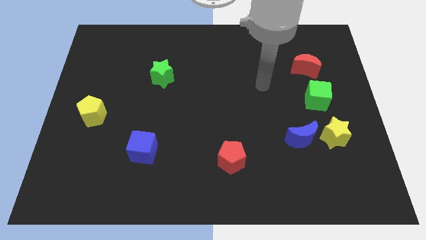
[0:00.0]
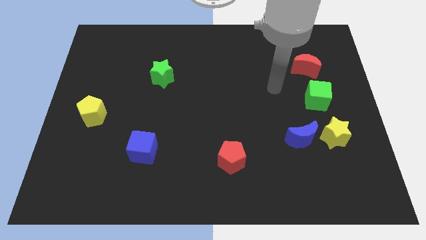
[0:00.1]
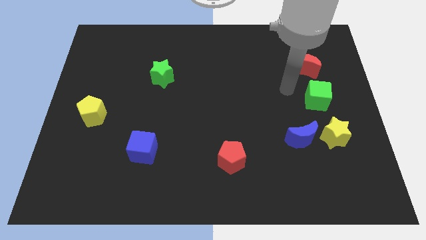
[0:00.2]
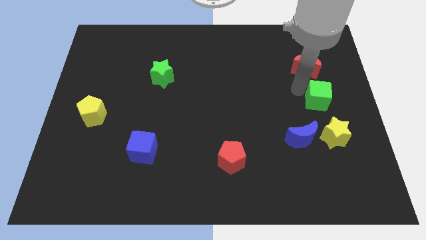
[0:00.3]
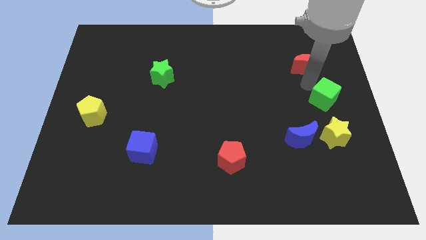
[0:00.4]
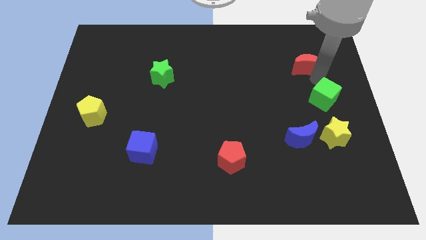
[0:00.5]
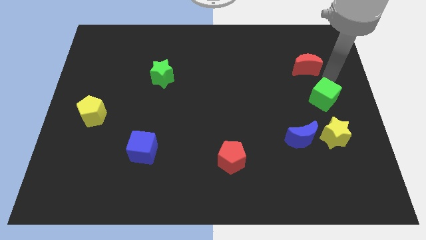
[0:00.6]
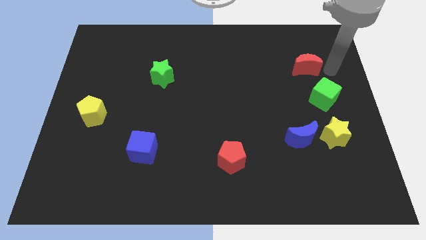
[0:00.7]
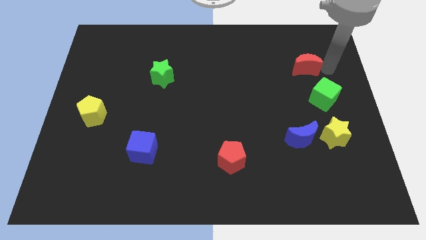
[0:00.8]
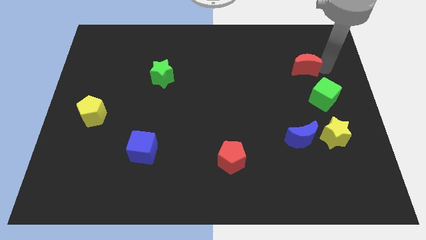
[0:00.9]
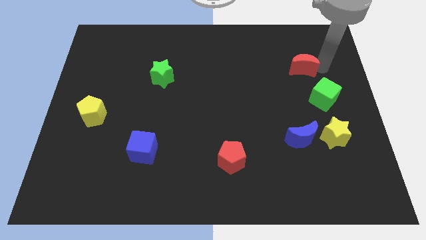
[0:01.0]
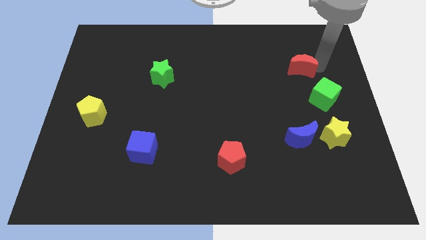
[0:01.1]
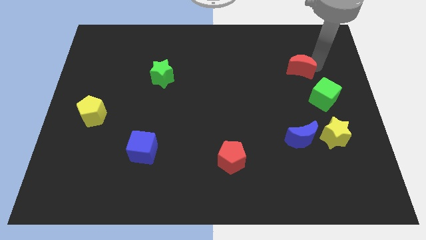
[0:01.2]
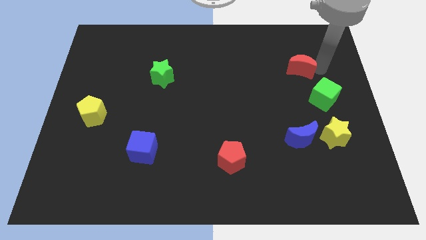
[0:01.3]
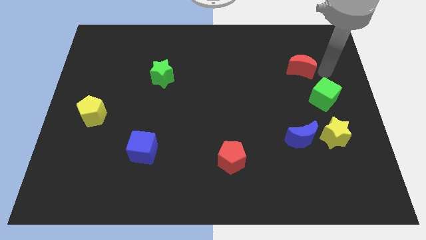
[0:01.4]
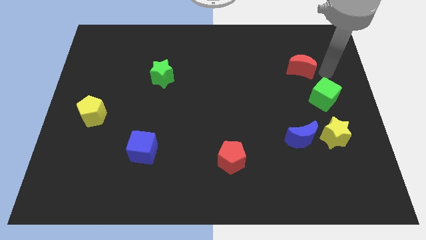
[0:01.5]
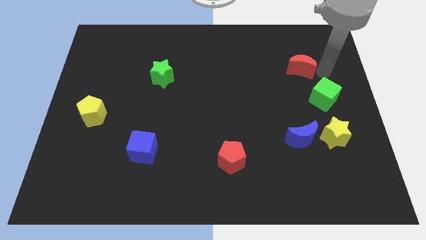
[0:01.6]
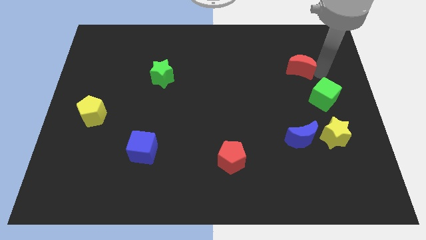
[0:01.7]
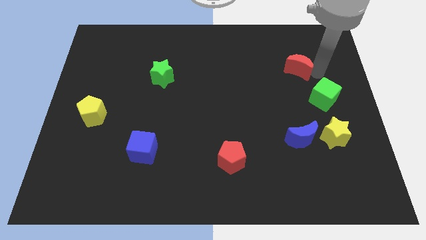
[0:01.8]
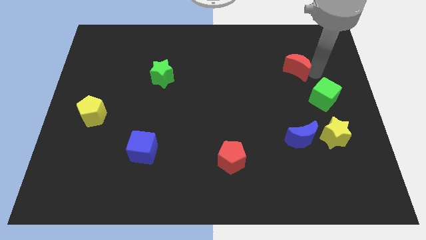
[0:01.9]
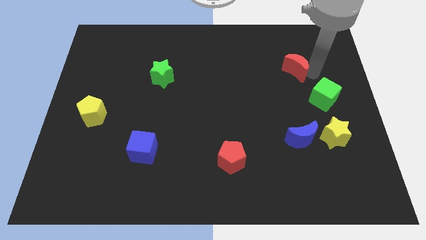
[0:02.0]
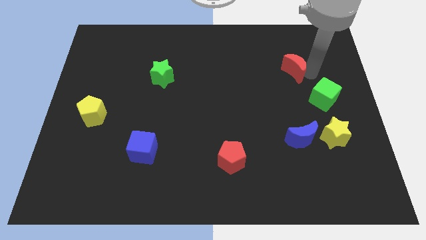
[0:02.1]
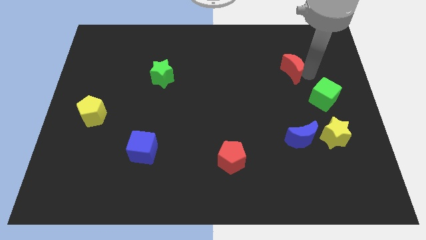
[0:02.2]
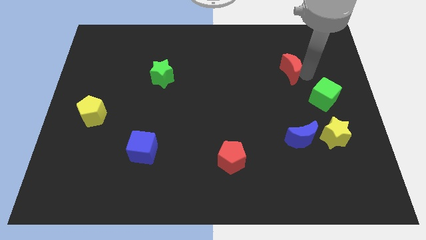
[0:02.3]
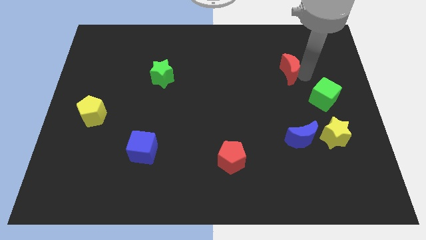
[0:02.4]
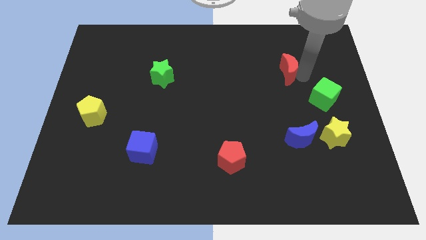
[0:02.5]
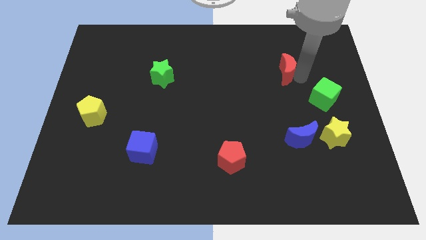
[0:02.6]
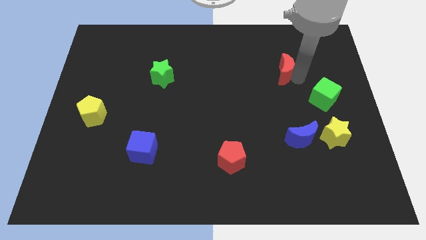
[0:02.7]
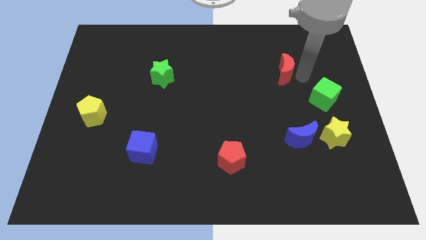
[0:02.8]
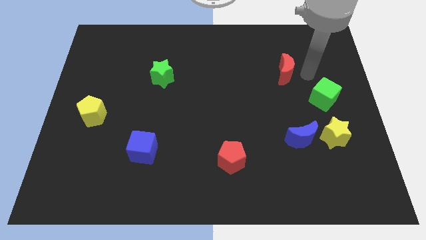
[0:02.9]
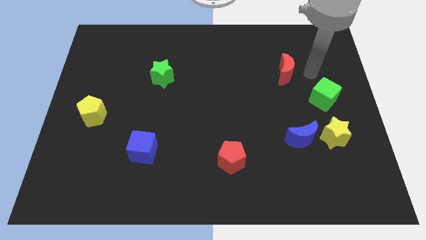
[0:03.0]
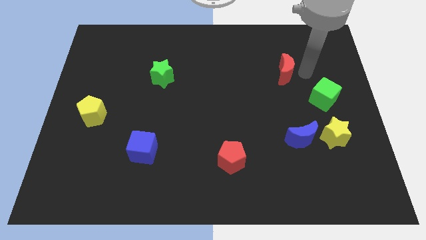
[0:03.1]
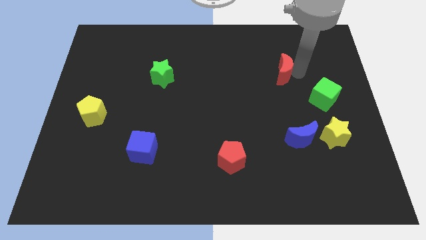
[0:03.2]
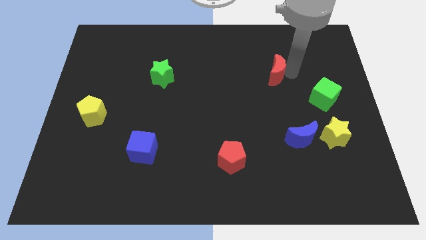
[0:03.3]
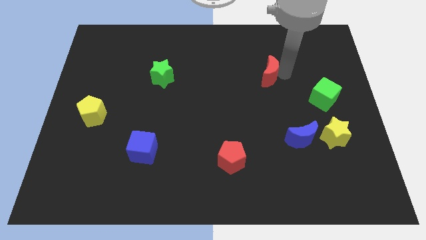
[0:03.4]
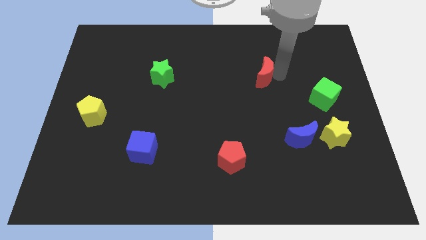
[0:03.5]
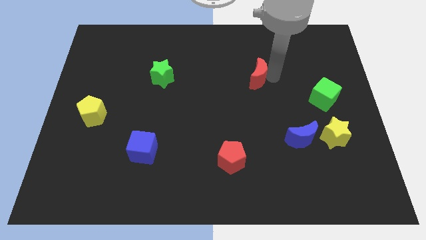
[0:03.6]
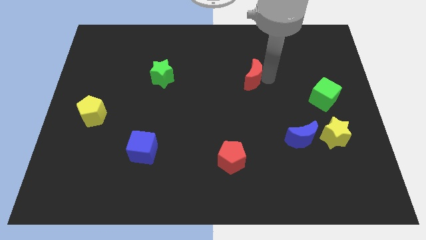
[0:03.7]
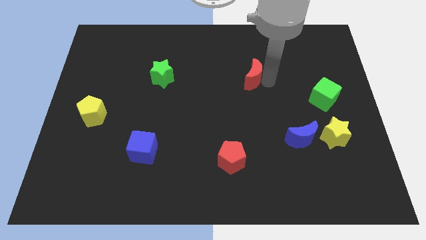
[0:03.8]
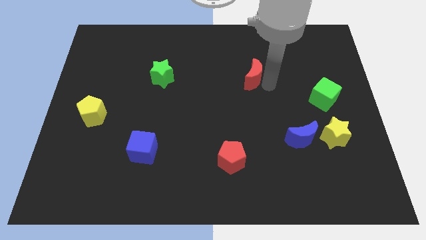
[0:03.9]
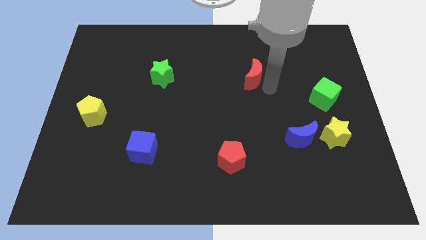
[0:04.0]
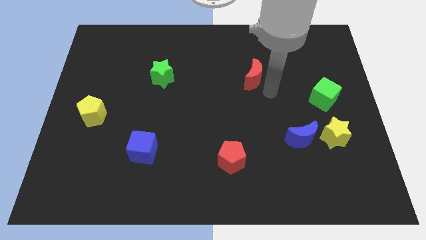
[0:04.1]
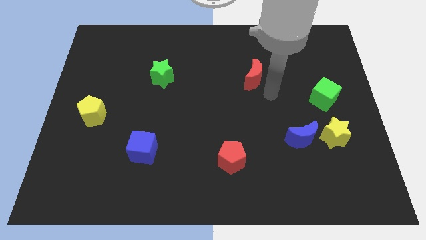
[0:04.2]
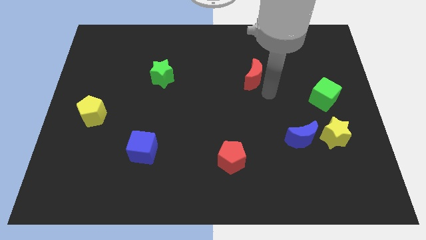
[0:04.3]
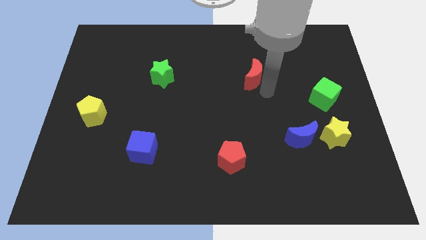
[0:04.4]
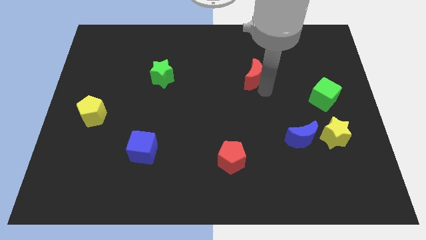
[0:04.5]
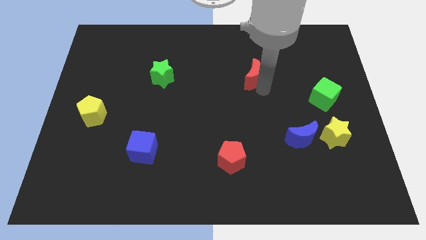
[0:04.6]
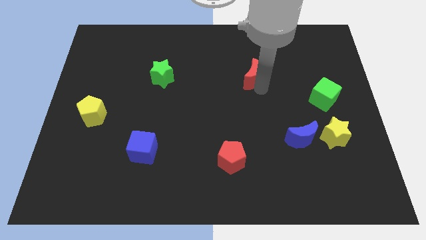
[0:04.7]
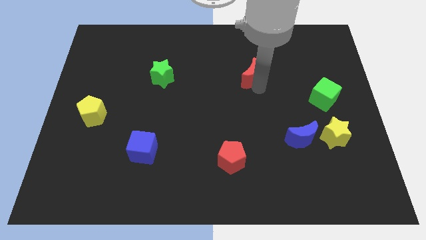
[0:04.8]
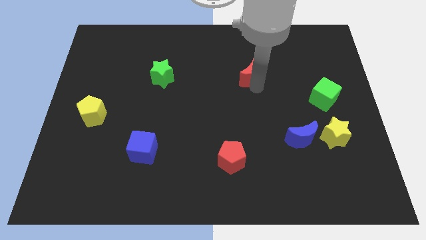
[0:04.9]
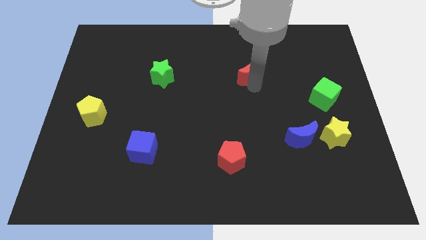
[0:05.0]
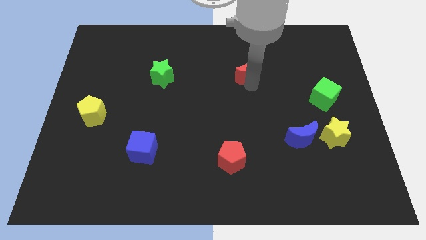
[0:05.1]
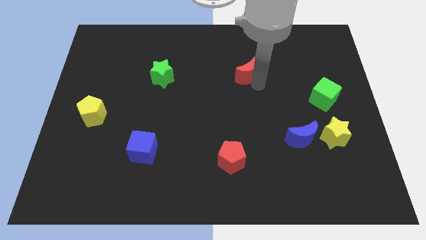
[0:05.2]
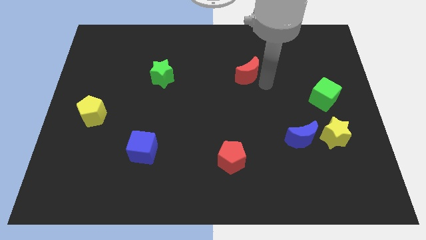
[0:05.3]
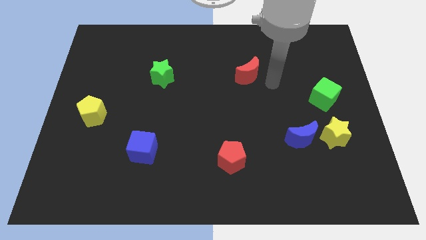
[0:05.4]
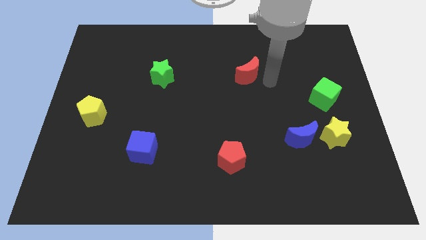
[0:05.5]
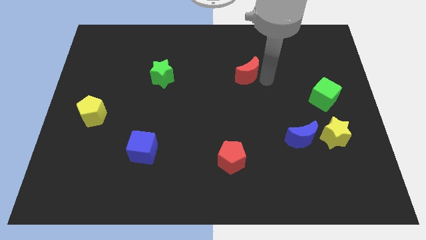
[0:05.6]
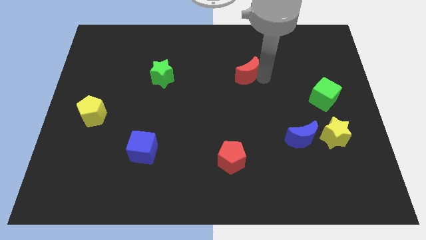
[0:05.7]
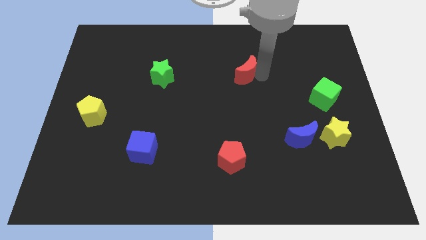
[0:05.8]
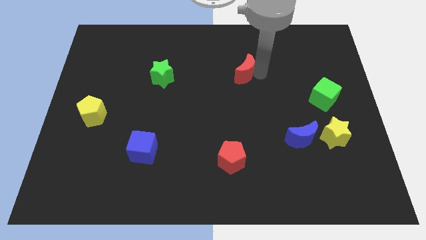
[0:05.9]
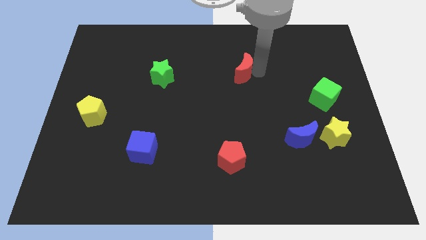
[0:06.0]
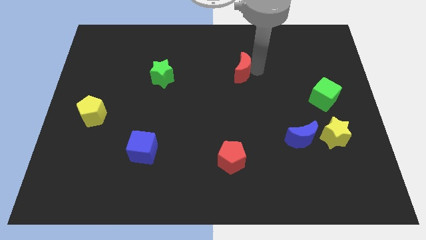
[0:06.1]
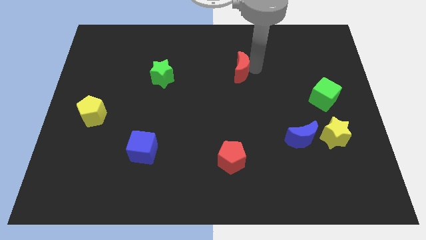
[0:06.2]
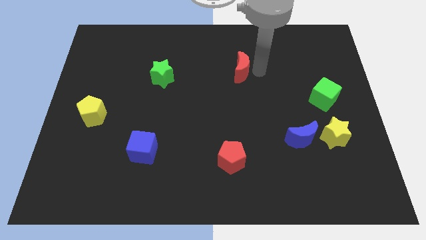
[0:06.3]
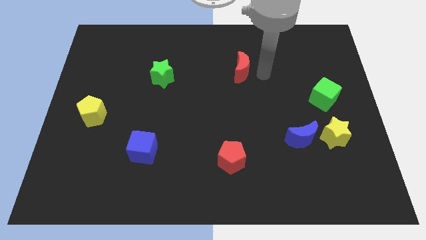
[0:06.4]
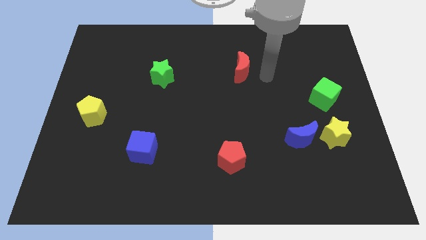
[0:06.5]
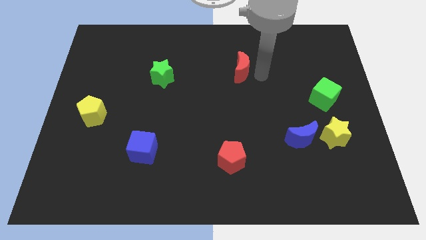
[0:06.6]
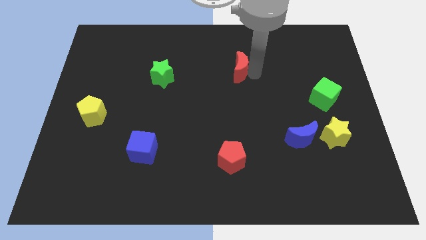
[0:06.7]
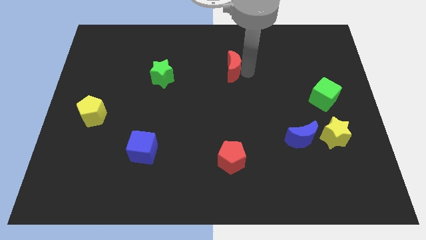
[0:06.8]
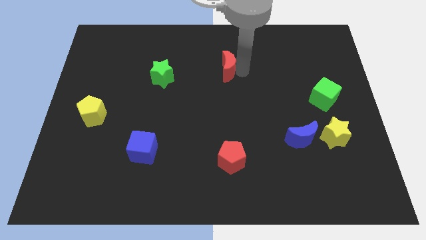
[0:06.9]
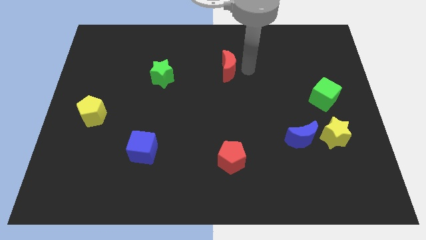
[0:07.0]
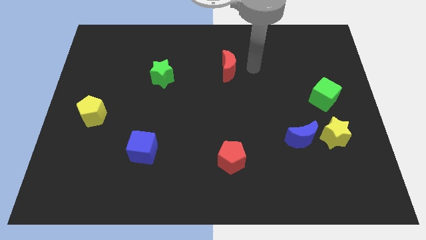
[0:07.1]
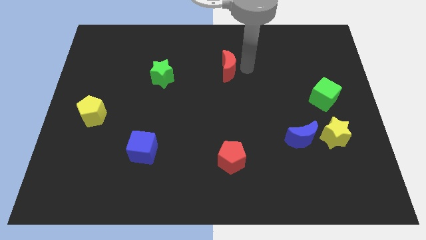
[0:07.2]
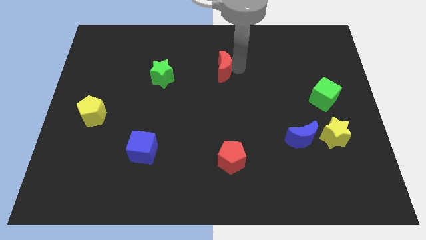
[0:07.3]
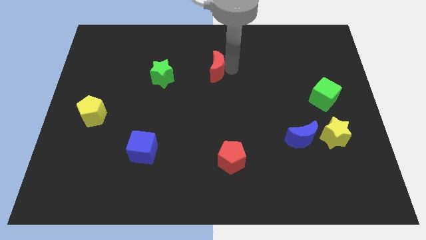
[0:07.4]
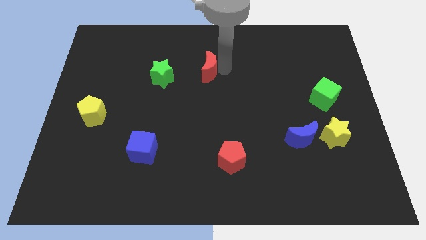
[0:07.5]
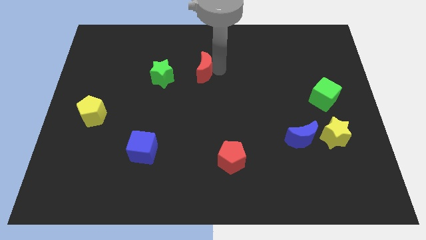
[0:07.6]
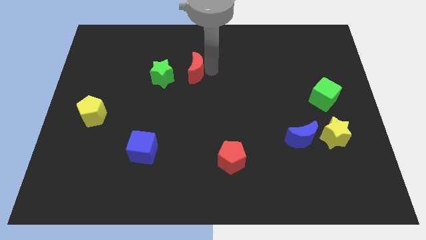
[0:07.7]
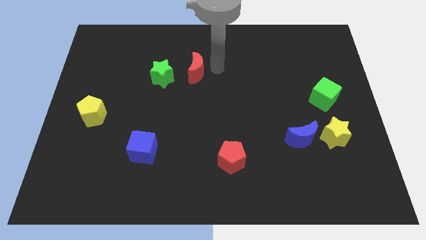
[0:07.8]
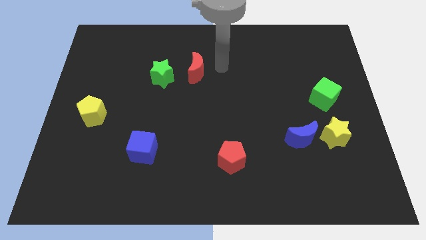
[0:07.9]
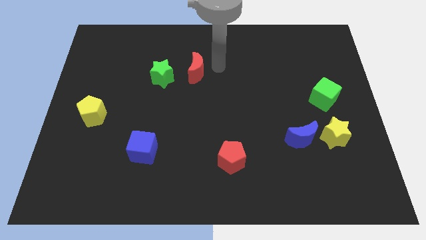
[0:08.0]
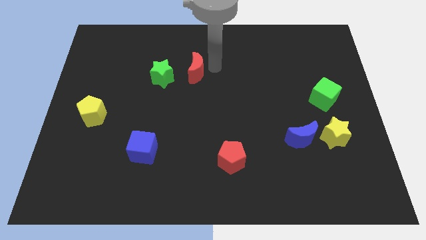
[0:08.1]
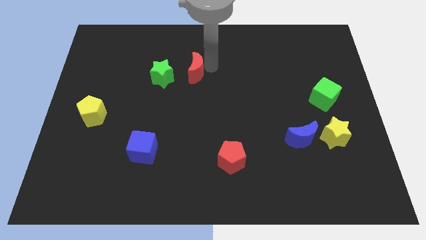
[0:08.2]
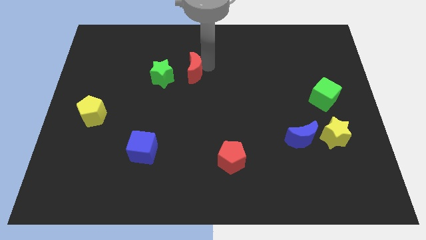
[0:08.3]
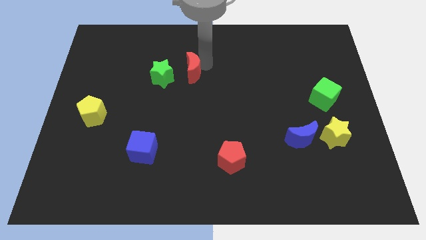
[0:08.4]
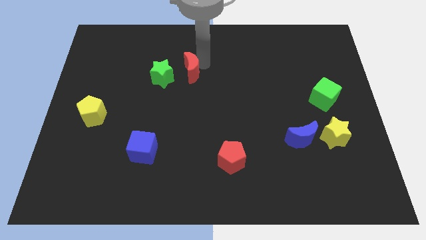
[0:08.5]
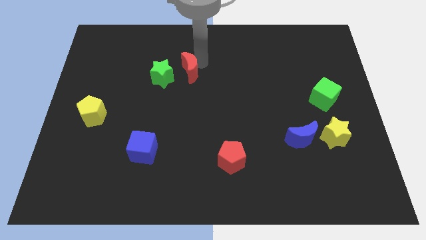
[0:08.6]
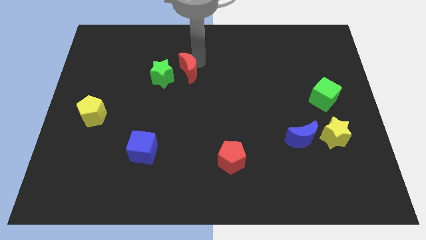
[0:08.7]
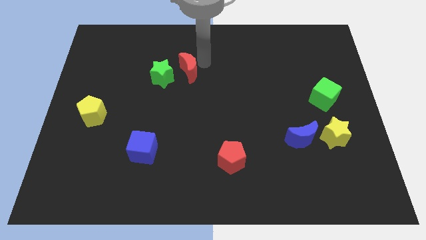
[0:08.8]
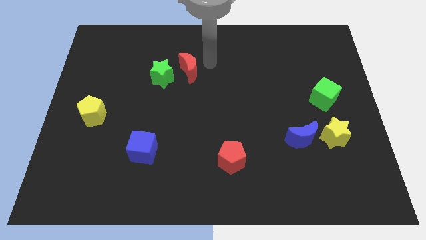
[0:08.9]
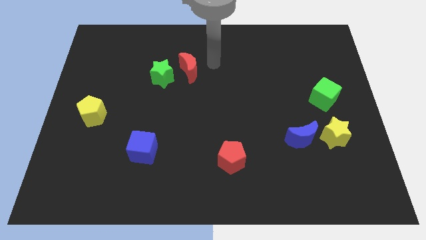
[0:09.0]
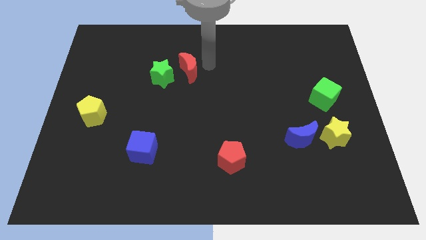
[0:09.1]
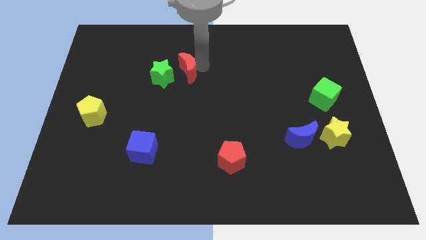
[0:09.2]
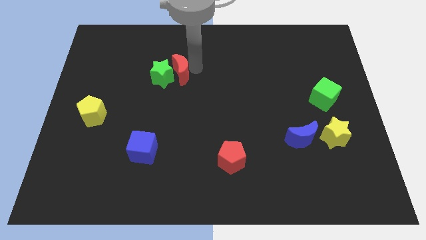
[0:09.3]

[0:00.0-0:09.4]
push the red moon next to the green star
